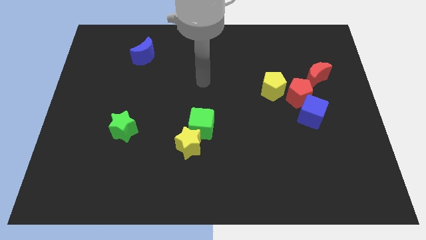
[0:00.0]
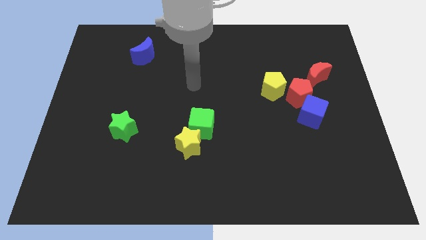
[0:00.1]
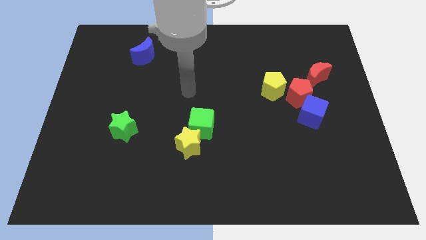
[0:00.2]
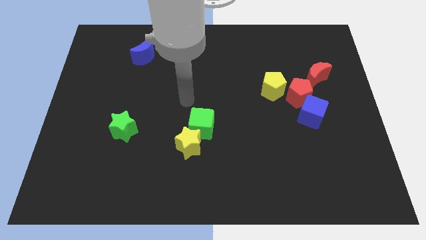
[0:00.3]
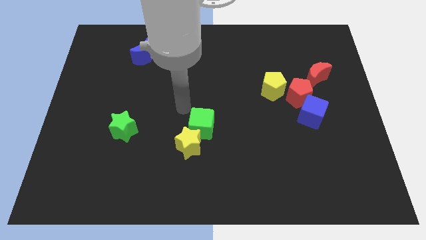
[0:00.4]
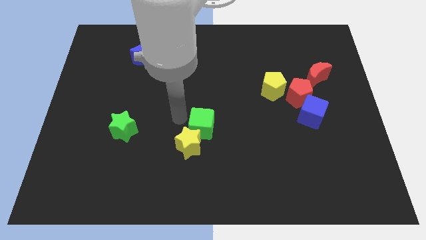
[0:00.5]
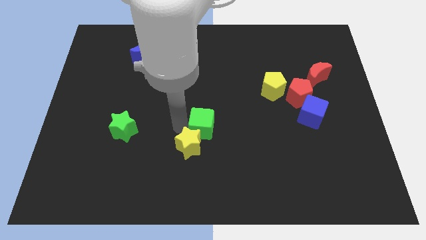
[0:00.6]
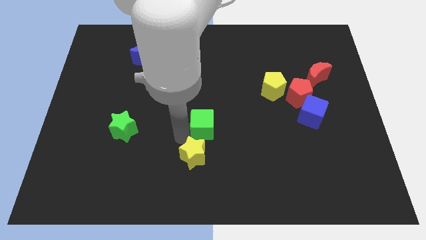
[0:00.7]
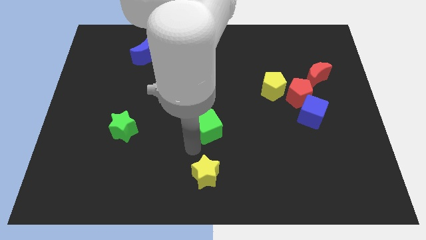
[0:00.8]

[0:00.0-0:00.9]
move the green cube away from the yellow star

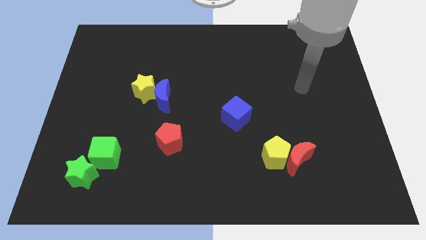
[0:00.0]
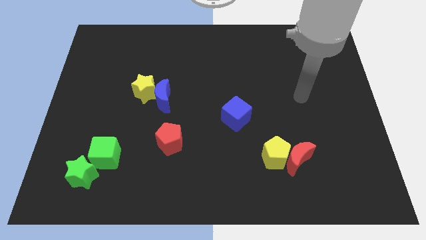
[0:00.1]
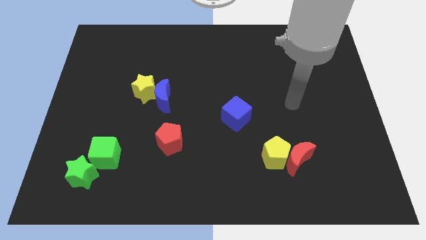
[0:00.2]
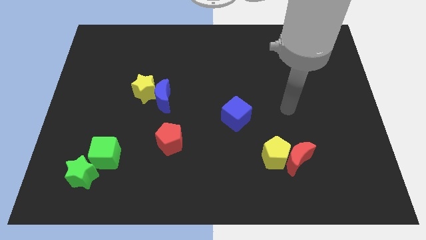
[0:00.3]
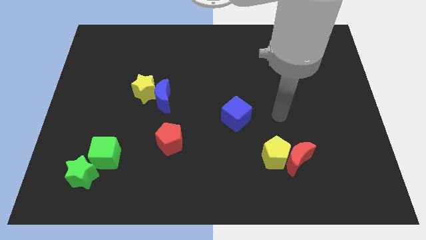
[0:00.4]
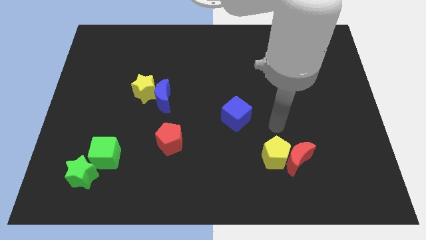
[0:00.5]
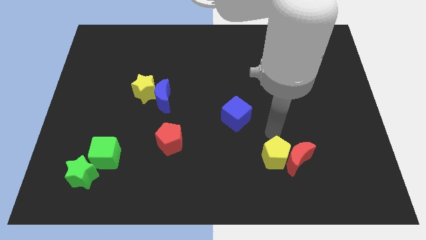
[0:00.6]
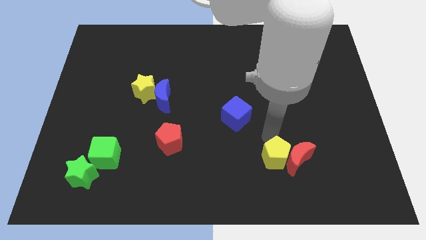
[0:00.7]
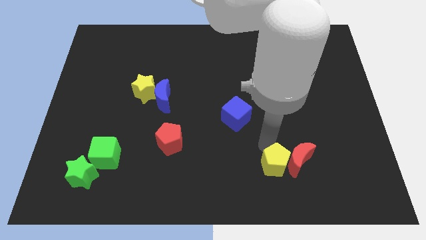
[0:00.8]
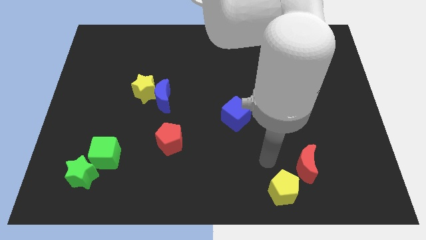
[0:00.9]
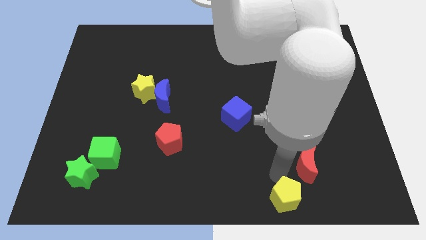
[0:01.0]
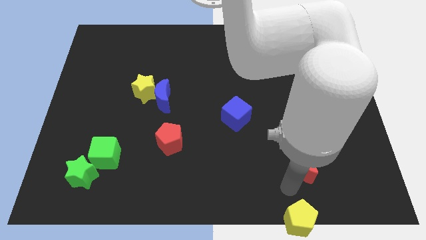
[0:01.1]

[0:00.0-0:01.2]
separate the red moon from the yellow pentagon

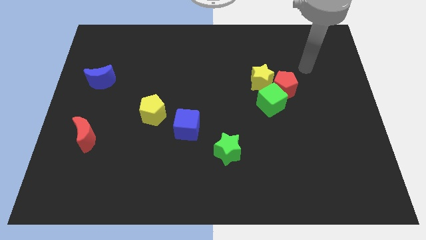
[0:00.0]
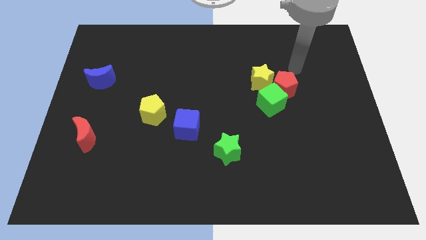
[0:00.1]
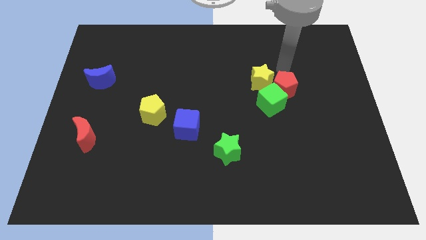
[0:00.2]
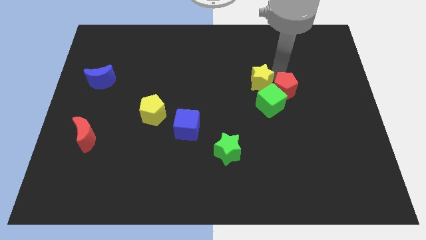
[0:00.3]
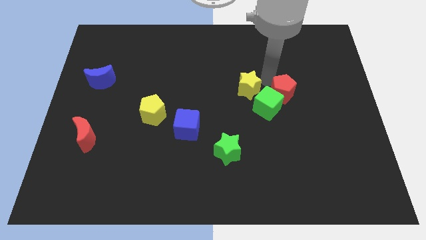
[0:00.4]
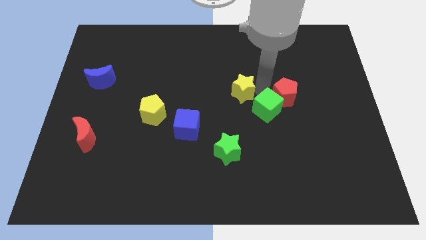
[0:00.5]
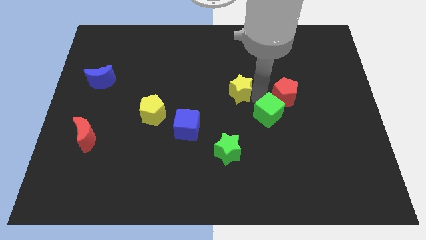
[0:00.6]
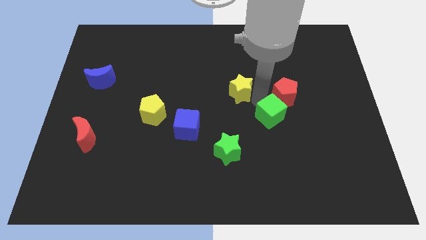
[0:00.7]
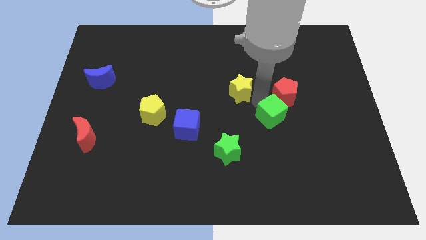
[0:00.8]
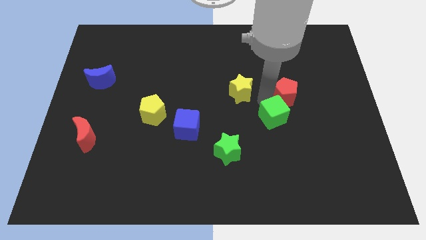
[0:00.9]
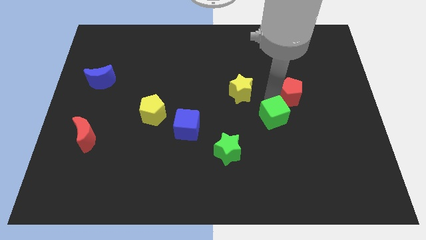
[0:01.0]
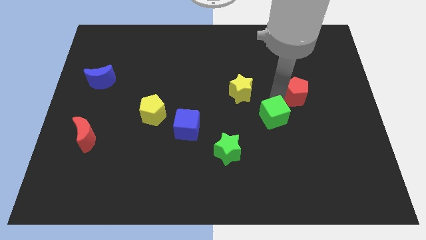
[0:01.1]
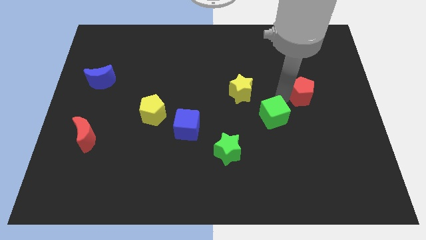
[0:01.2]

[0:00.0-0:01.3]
move the red pentagon away from the yellow star and green cube

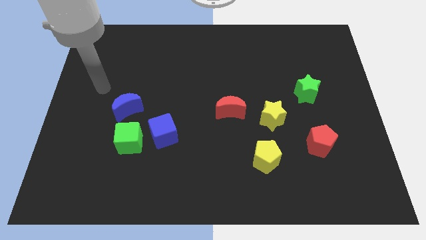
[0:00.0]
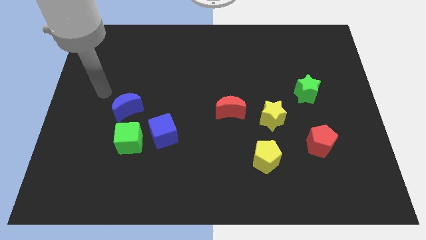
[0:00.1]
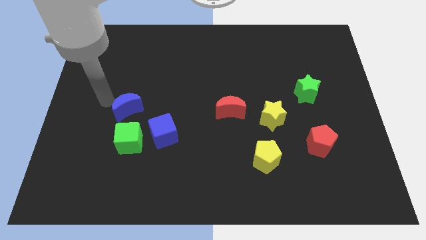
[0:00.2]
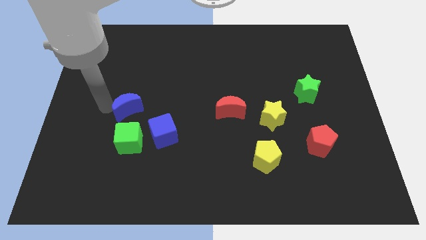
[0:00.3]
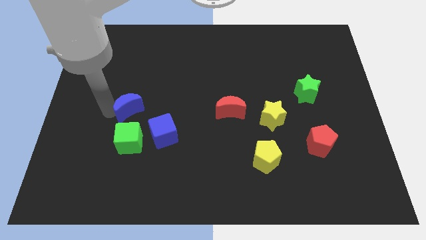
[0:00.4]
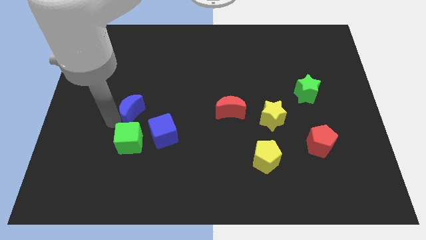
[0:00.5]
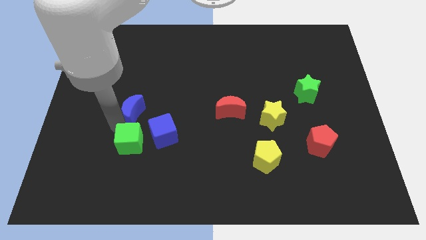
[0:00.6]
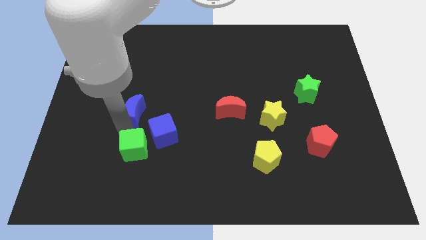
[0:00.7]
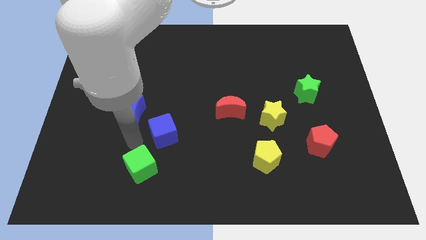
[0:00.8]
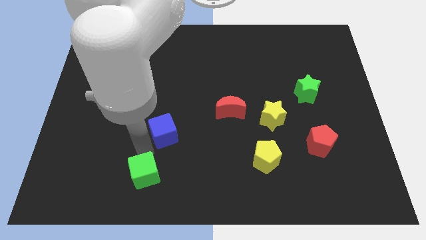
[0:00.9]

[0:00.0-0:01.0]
pull the blue cube apart from the green cube

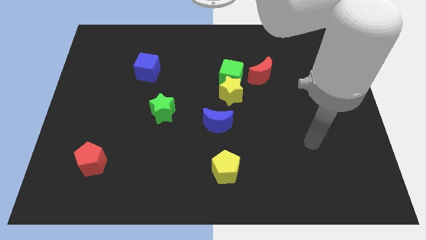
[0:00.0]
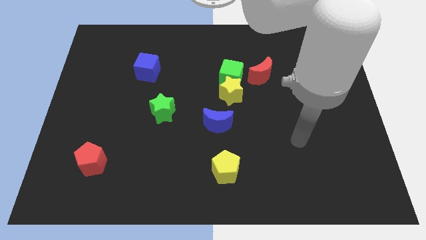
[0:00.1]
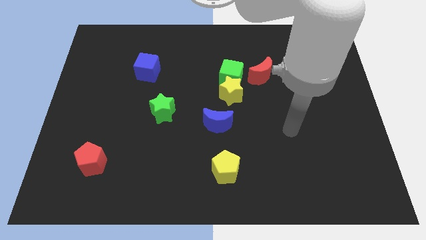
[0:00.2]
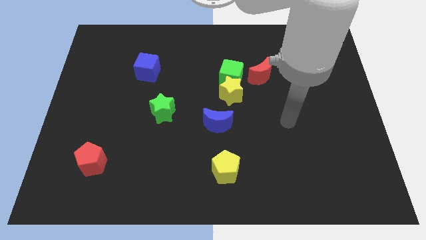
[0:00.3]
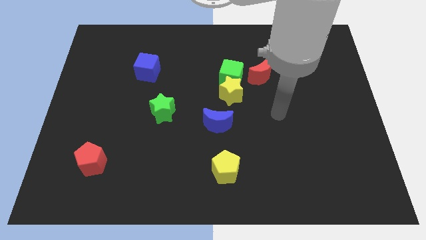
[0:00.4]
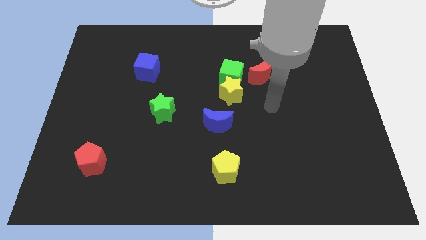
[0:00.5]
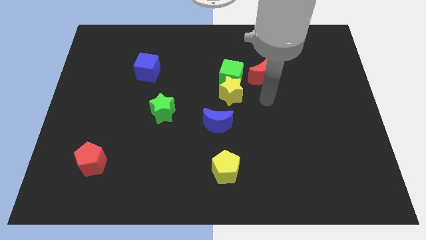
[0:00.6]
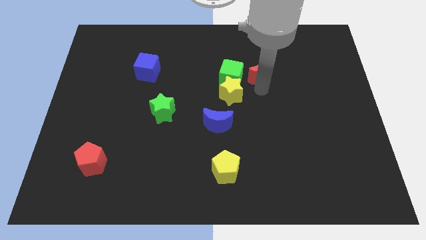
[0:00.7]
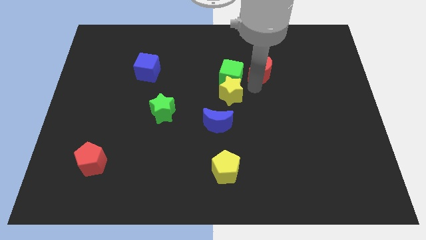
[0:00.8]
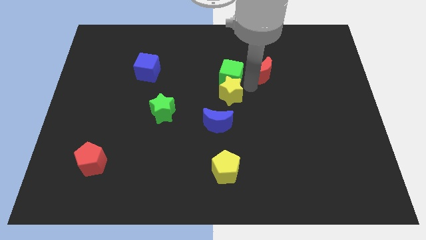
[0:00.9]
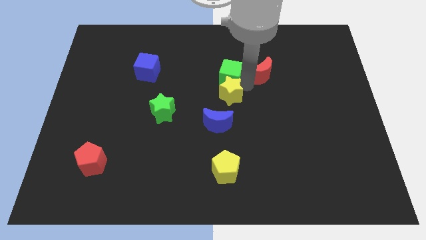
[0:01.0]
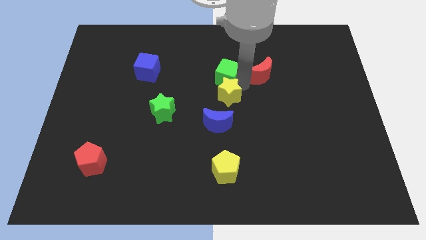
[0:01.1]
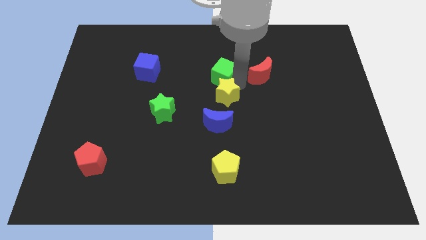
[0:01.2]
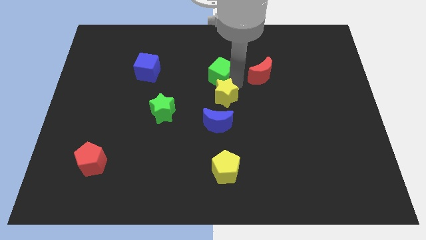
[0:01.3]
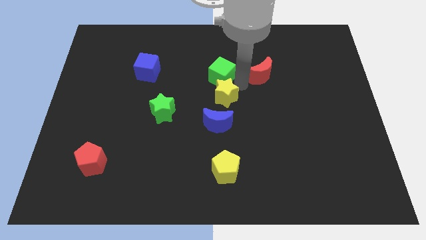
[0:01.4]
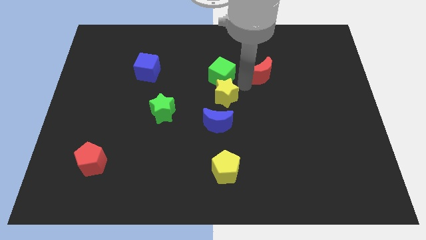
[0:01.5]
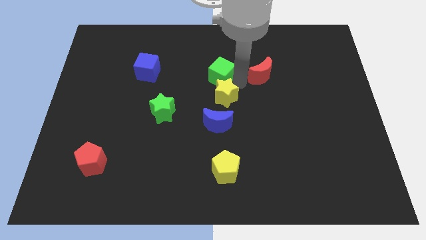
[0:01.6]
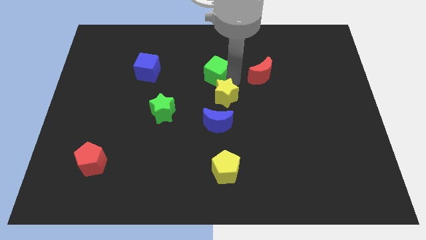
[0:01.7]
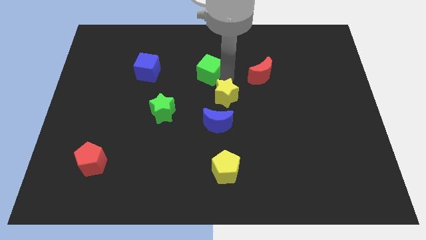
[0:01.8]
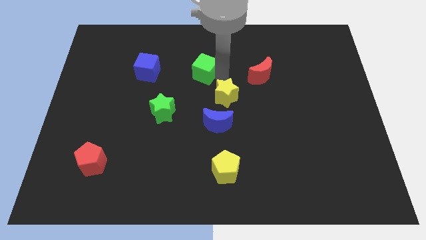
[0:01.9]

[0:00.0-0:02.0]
pull the green cube apart from the yellow star and red moon

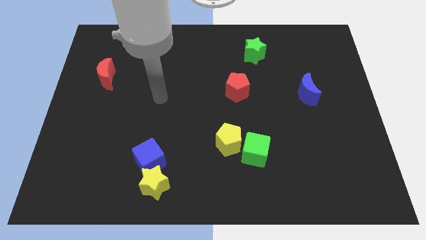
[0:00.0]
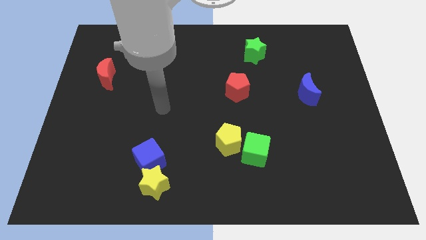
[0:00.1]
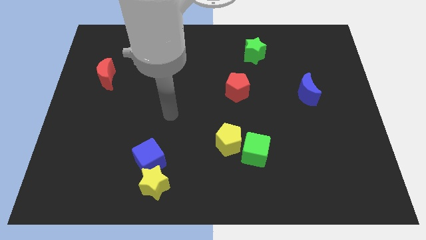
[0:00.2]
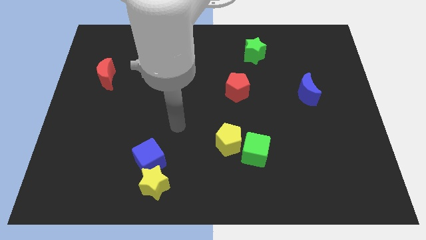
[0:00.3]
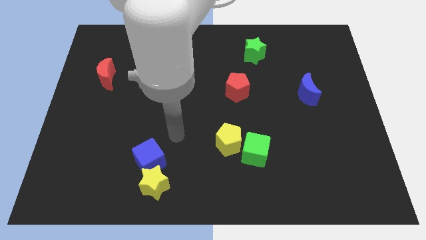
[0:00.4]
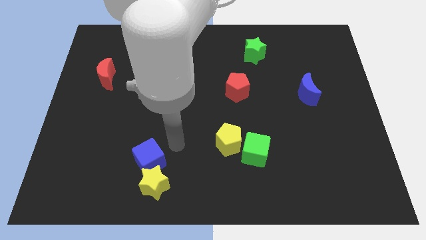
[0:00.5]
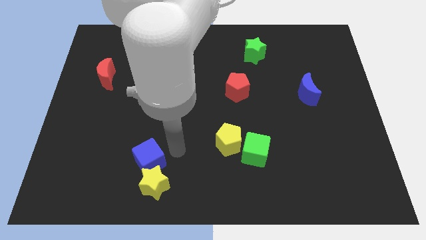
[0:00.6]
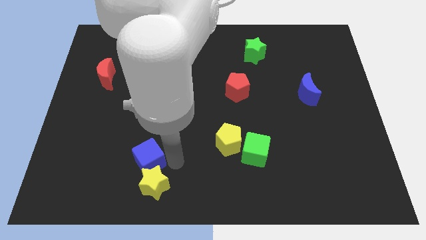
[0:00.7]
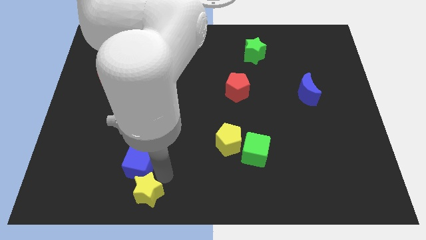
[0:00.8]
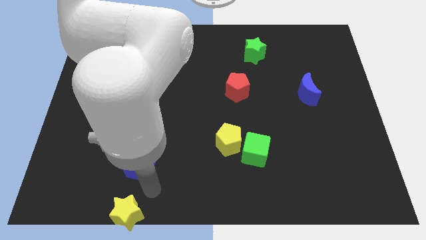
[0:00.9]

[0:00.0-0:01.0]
separate the blue cube from the yellow star

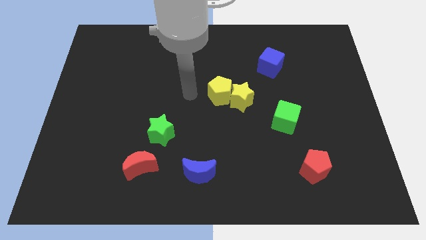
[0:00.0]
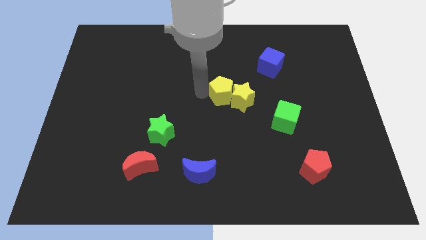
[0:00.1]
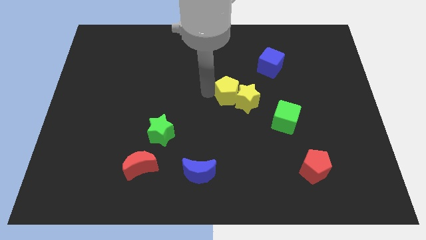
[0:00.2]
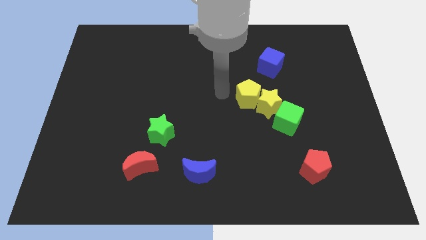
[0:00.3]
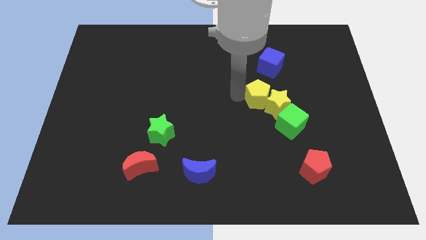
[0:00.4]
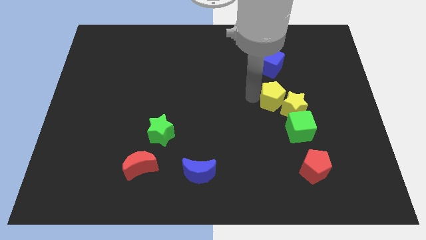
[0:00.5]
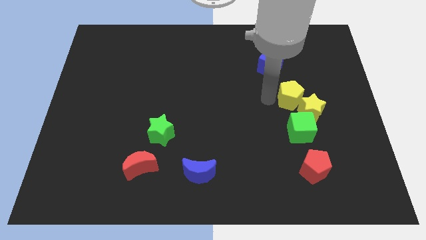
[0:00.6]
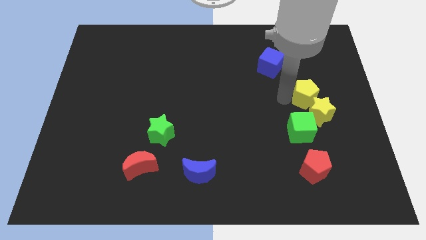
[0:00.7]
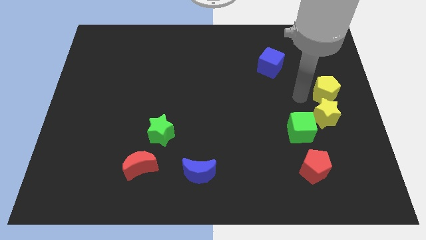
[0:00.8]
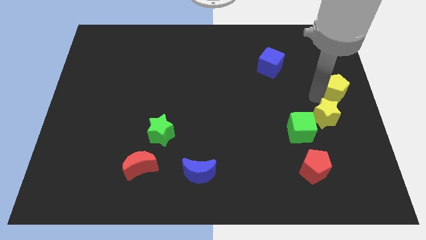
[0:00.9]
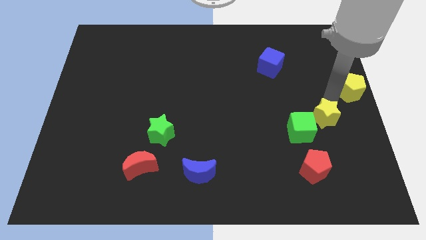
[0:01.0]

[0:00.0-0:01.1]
pull the yellow star apart from the yellow pentagon

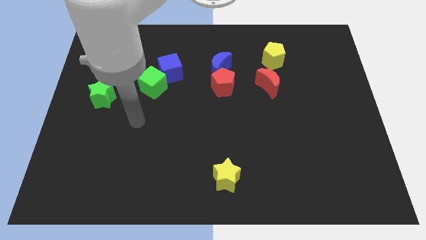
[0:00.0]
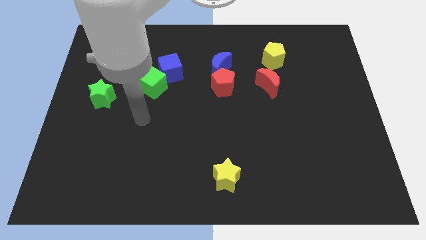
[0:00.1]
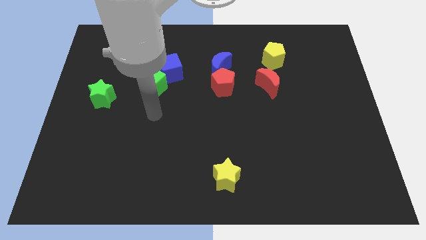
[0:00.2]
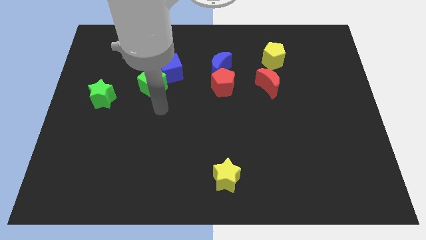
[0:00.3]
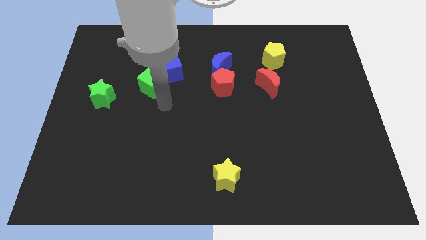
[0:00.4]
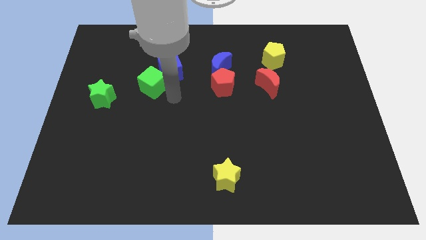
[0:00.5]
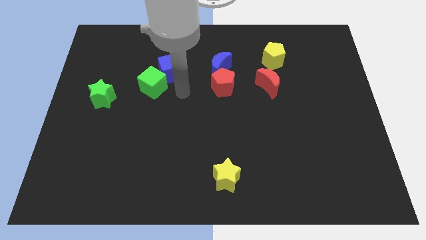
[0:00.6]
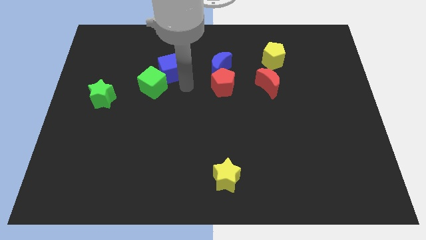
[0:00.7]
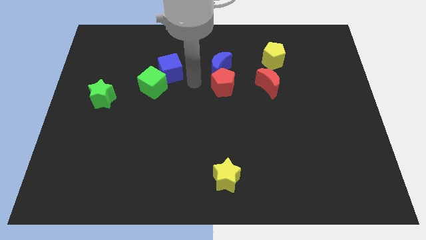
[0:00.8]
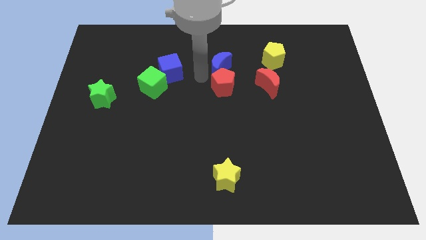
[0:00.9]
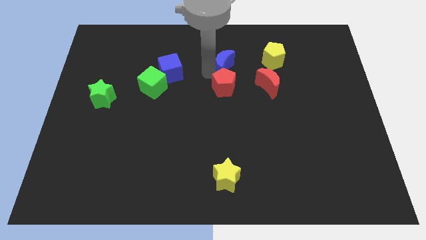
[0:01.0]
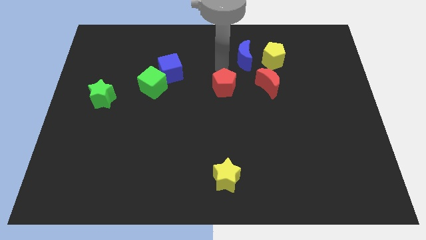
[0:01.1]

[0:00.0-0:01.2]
separate the red pentagon from the blue moon
